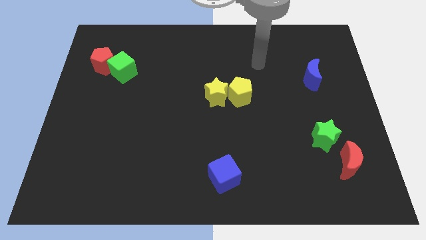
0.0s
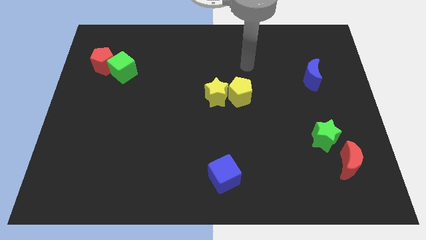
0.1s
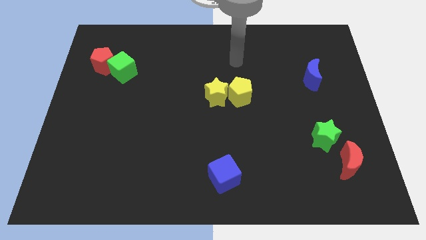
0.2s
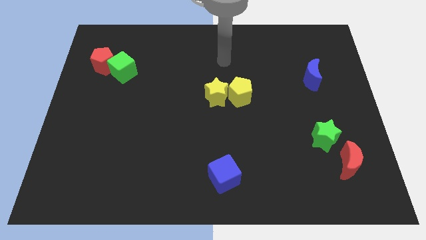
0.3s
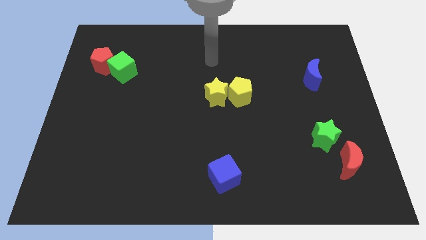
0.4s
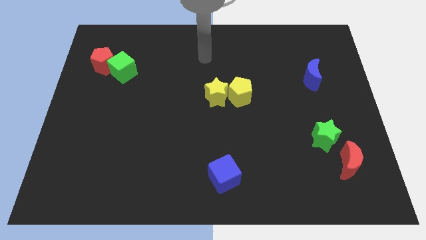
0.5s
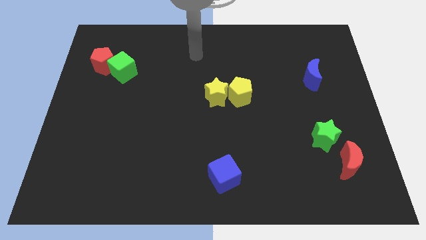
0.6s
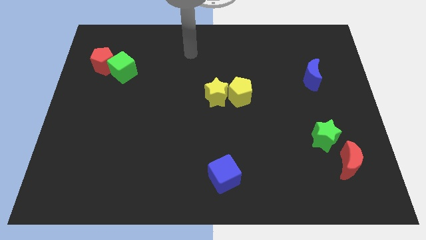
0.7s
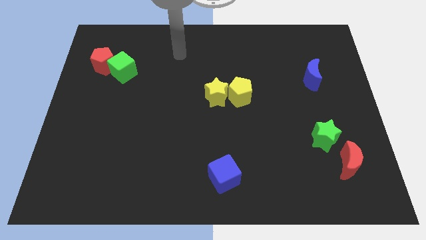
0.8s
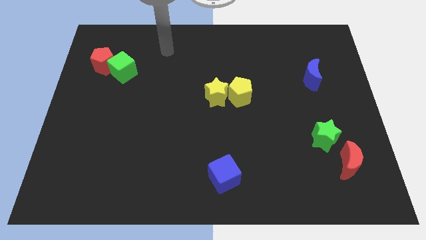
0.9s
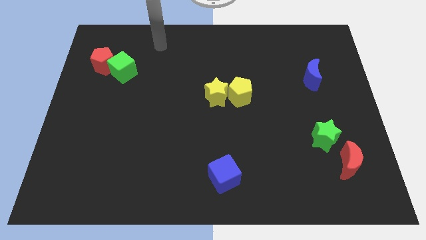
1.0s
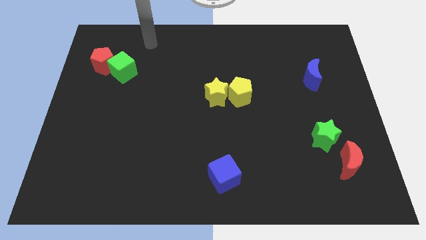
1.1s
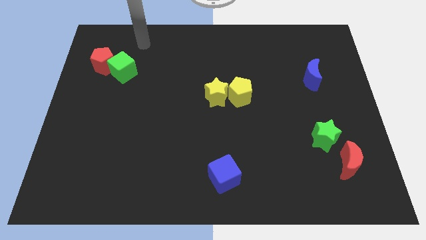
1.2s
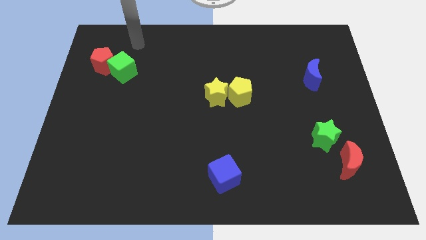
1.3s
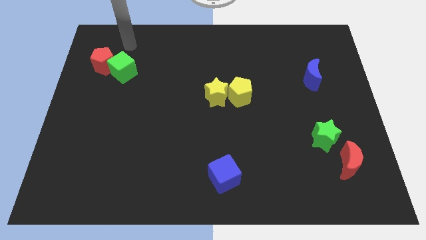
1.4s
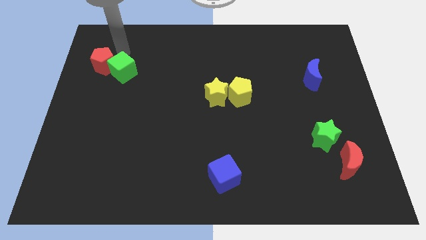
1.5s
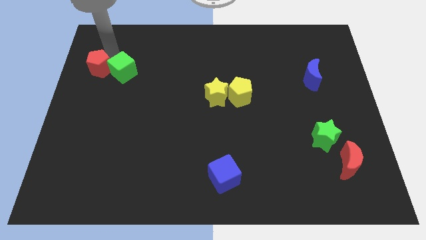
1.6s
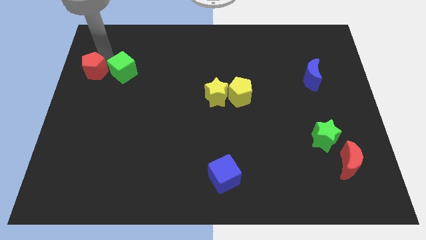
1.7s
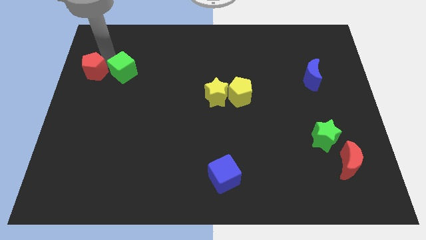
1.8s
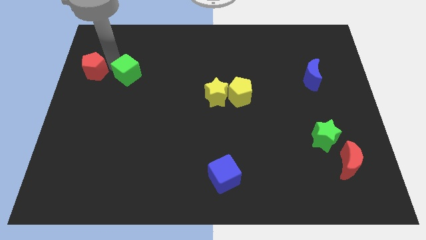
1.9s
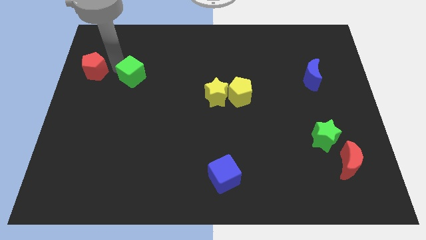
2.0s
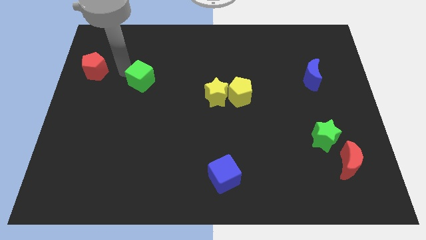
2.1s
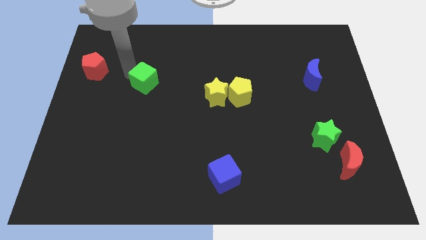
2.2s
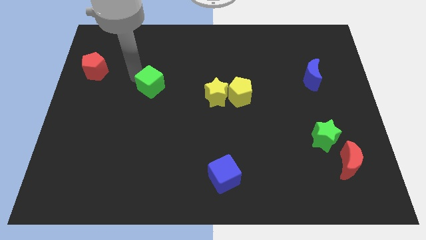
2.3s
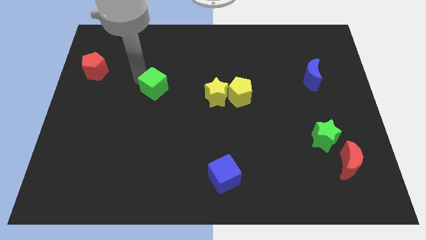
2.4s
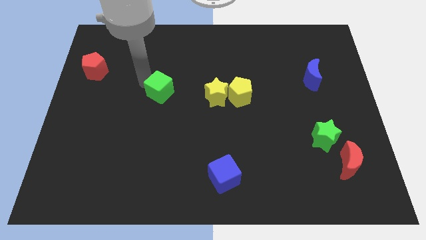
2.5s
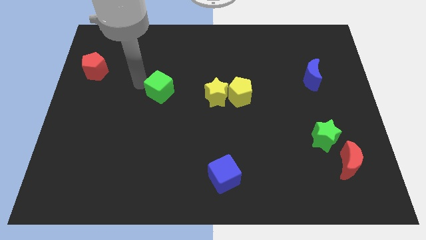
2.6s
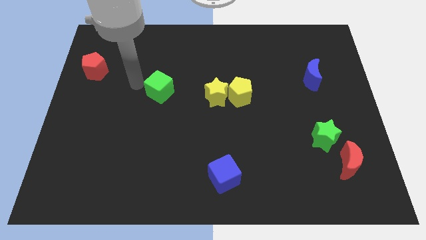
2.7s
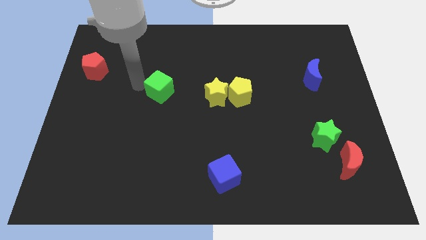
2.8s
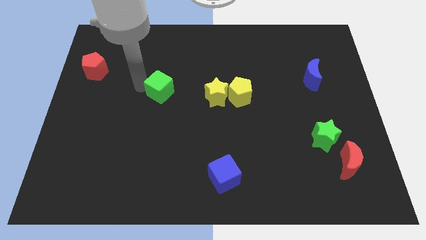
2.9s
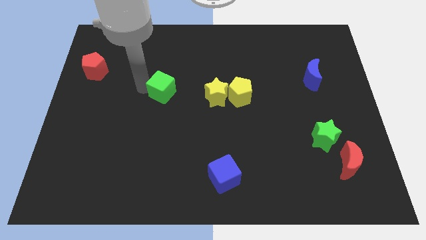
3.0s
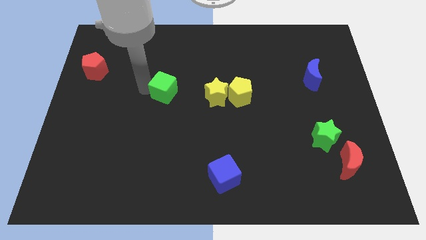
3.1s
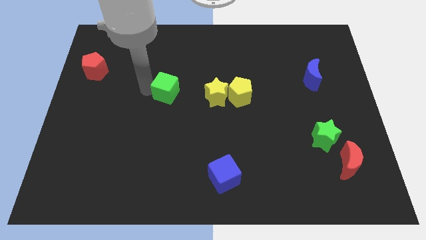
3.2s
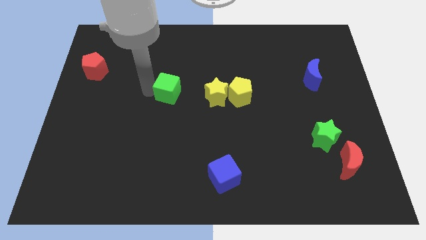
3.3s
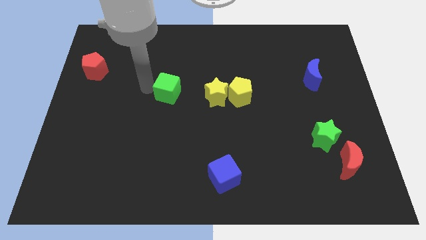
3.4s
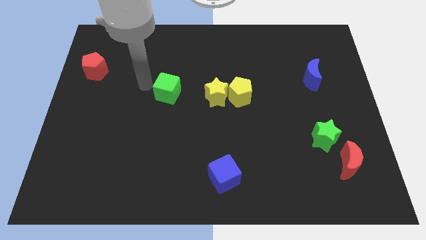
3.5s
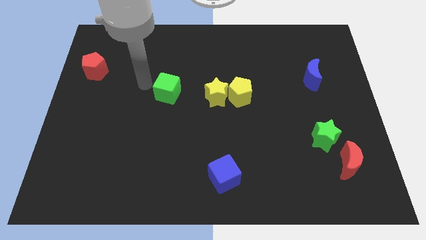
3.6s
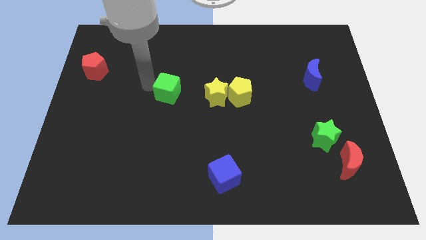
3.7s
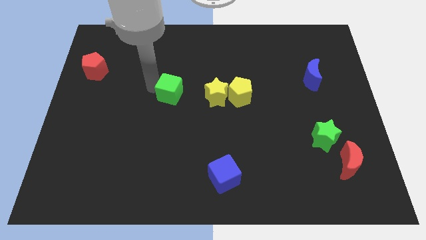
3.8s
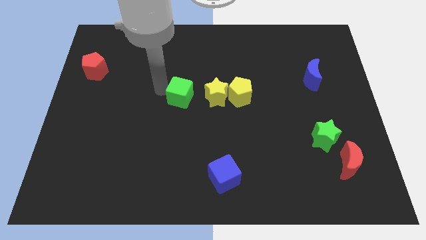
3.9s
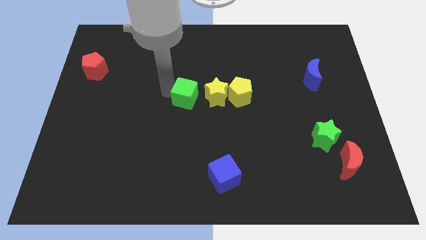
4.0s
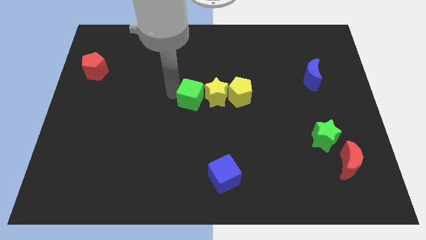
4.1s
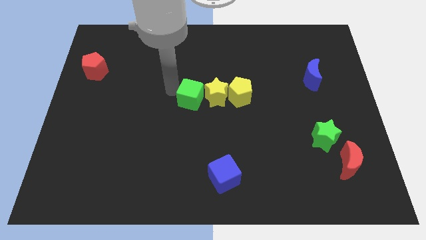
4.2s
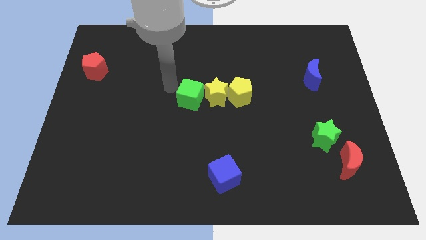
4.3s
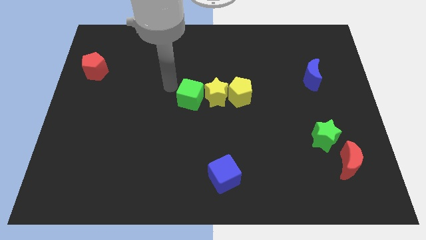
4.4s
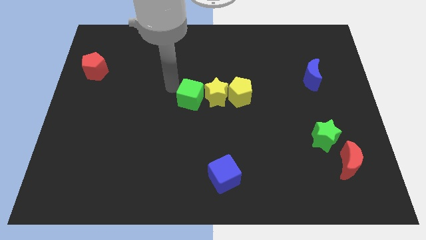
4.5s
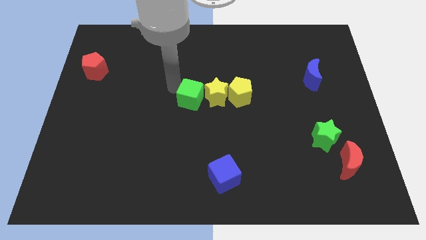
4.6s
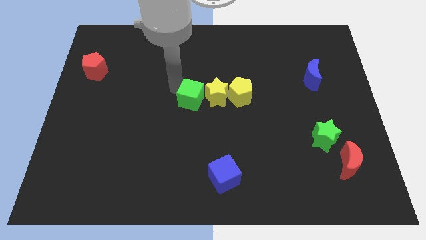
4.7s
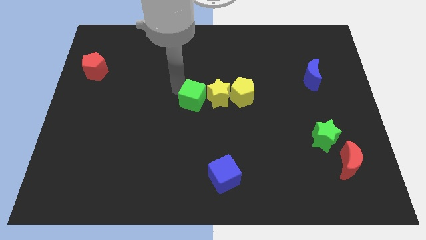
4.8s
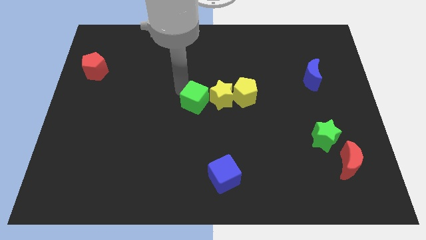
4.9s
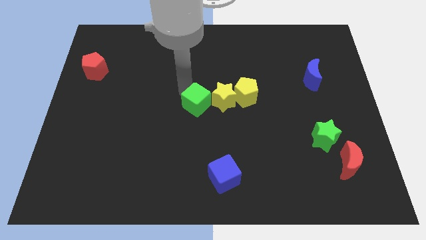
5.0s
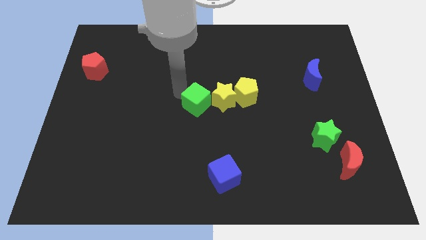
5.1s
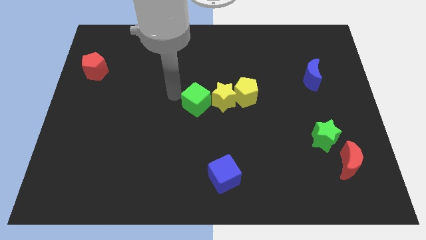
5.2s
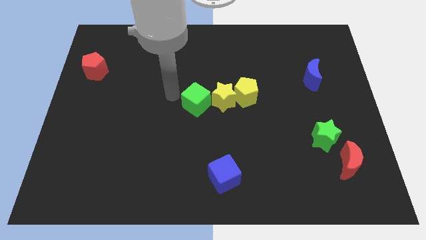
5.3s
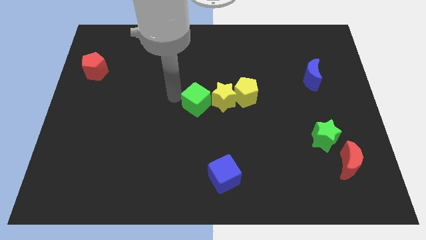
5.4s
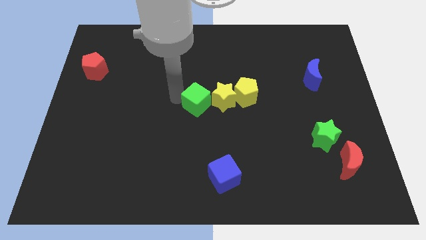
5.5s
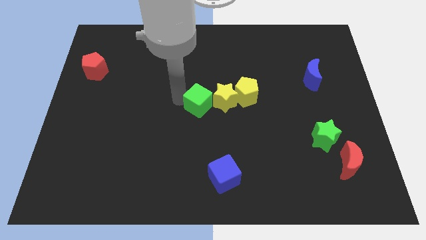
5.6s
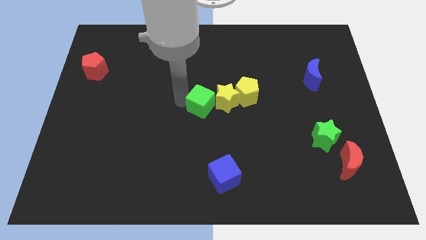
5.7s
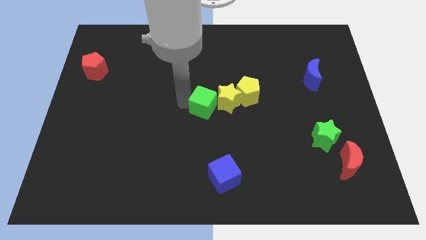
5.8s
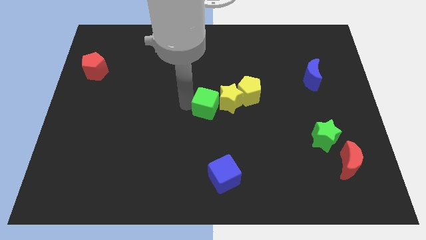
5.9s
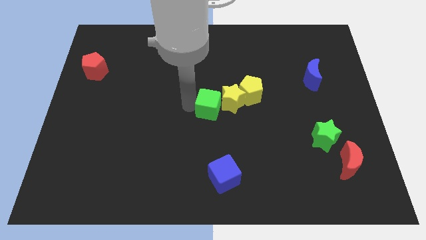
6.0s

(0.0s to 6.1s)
put the green cube to the bottom left side of the yellow pentagon
